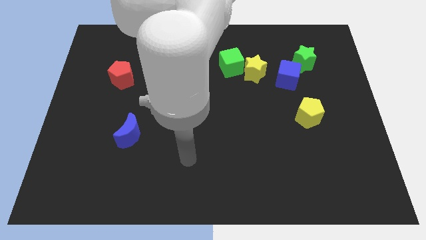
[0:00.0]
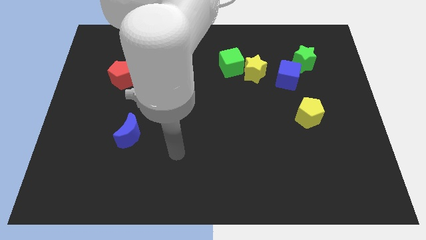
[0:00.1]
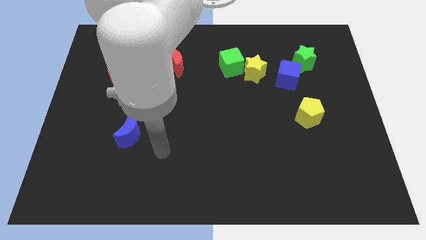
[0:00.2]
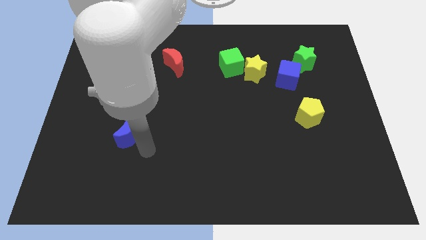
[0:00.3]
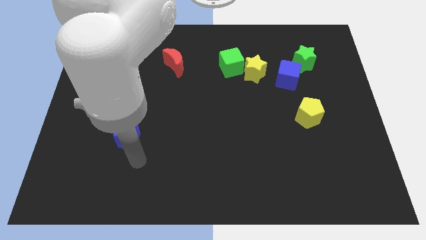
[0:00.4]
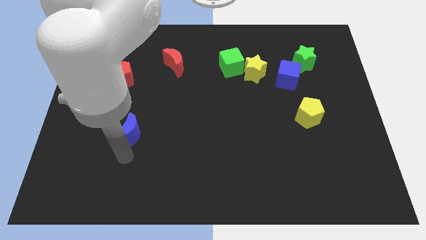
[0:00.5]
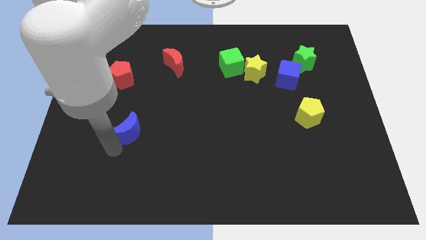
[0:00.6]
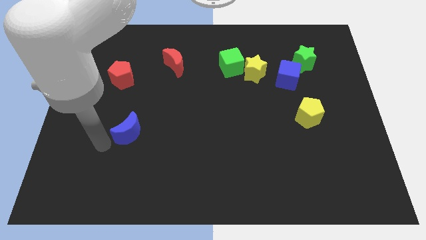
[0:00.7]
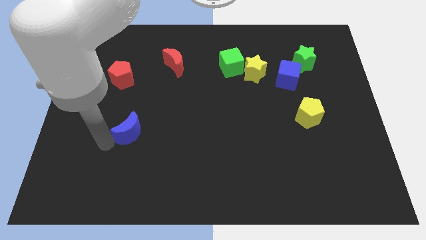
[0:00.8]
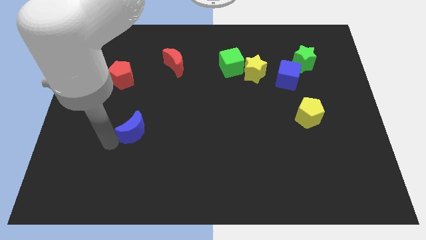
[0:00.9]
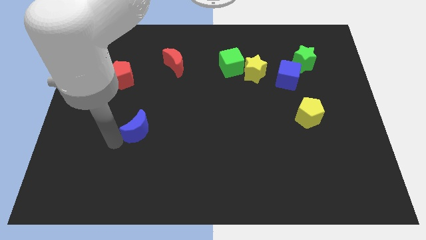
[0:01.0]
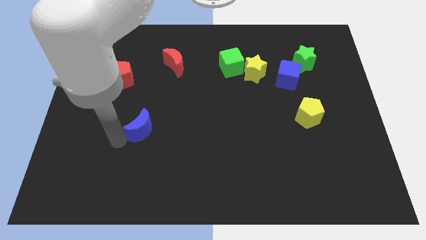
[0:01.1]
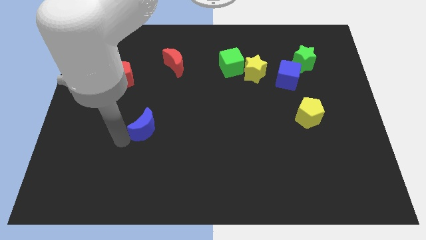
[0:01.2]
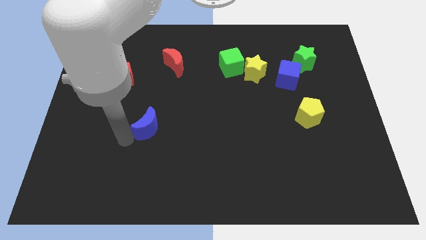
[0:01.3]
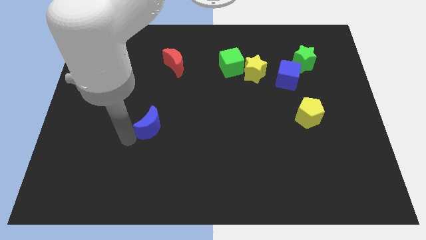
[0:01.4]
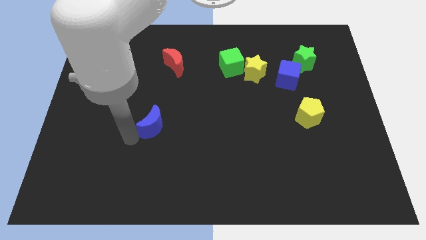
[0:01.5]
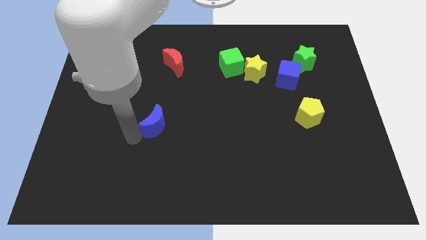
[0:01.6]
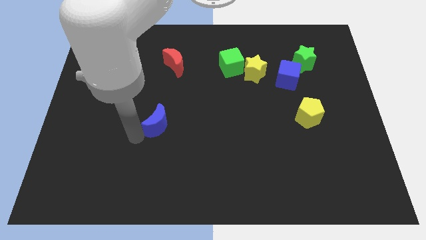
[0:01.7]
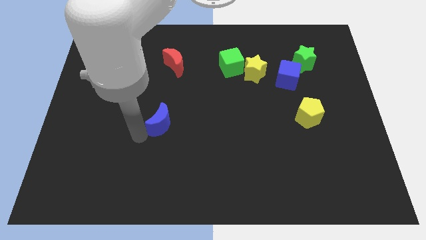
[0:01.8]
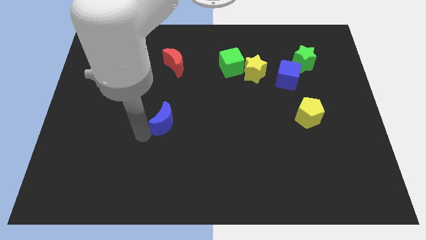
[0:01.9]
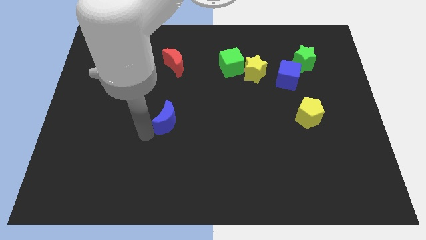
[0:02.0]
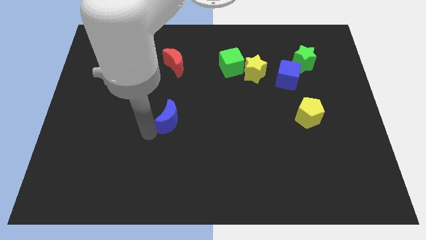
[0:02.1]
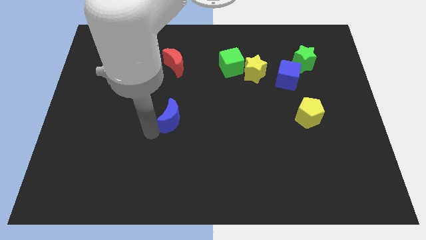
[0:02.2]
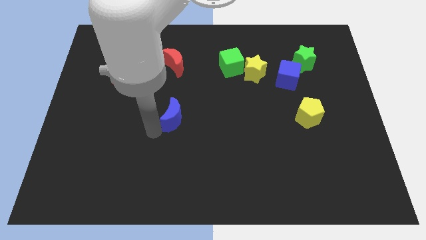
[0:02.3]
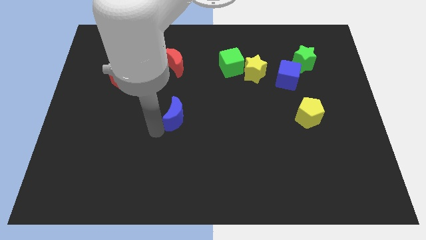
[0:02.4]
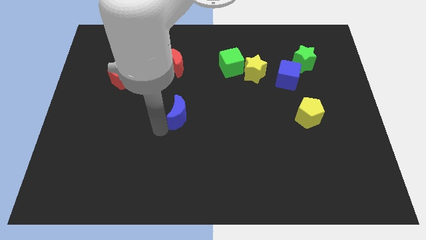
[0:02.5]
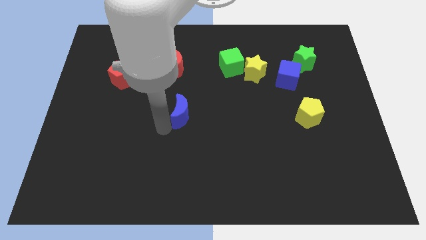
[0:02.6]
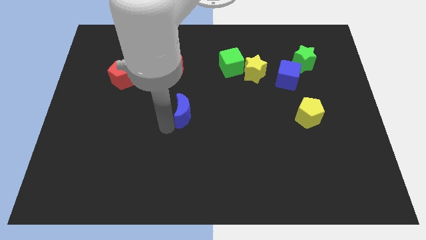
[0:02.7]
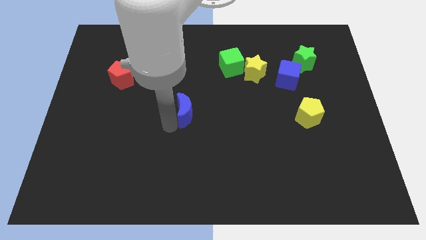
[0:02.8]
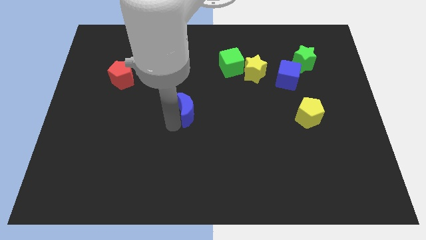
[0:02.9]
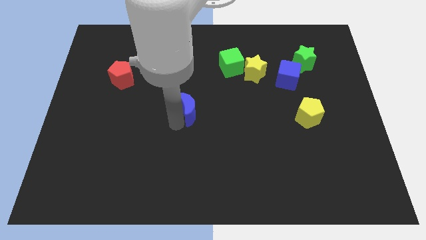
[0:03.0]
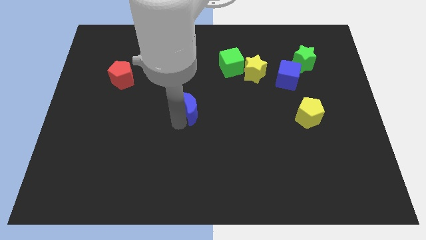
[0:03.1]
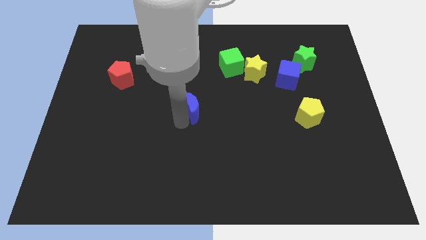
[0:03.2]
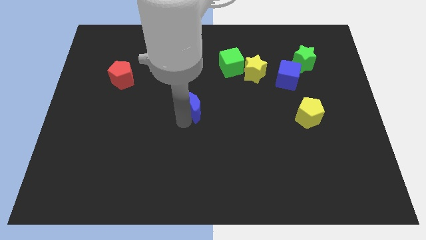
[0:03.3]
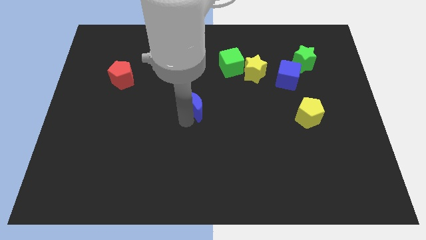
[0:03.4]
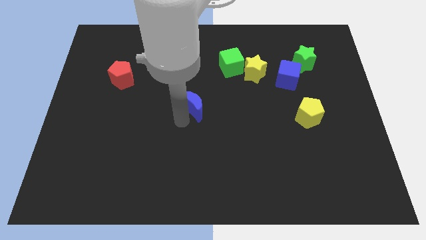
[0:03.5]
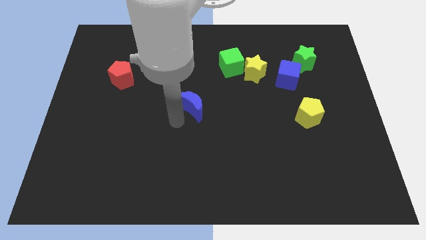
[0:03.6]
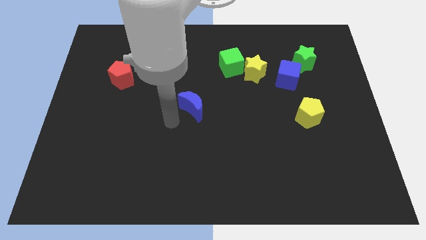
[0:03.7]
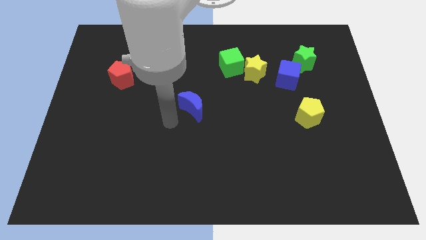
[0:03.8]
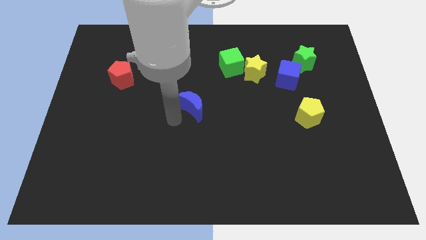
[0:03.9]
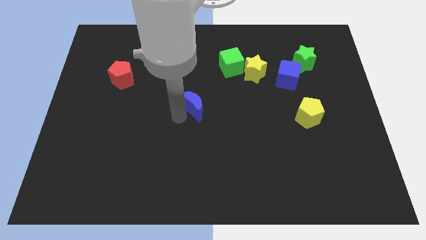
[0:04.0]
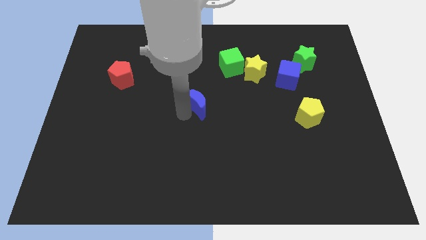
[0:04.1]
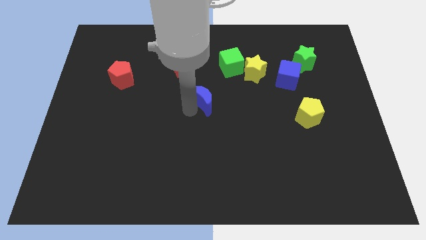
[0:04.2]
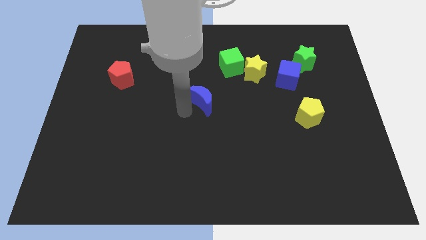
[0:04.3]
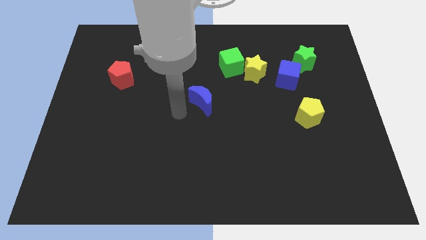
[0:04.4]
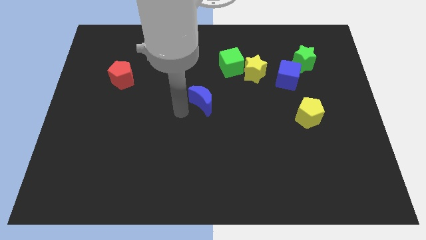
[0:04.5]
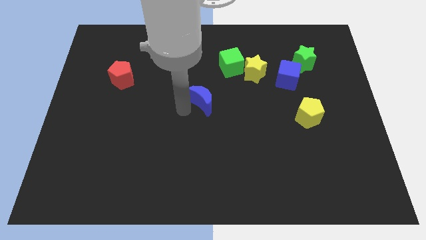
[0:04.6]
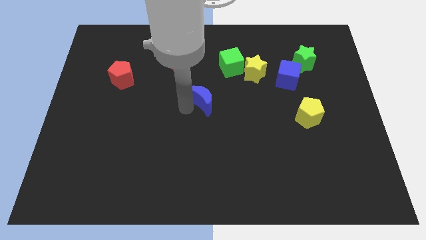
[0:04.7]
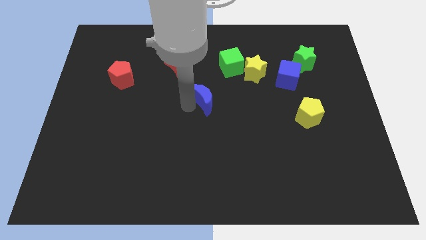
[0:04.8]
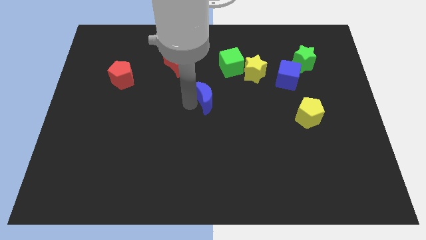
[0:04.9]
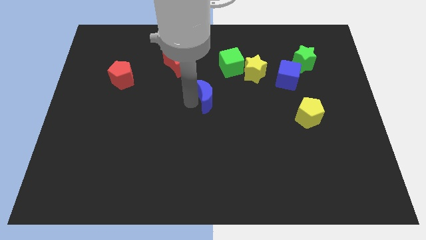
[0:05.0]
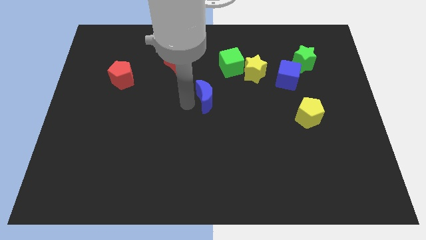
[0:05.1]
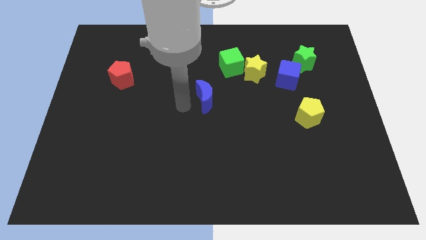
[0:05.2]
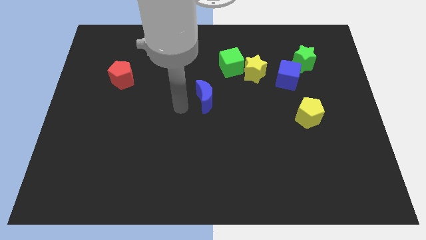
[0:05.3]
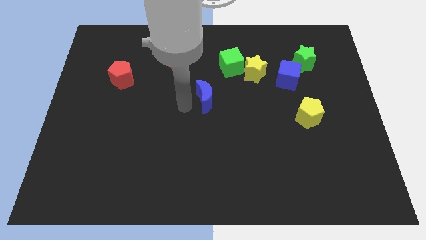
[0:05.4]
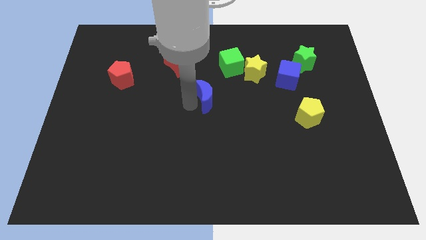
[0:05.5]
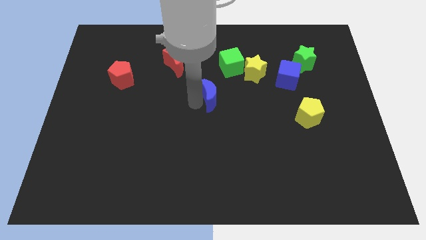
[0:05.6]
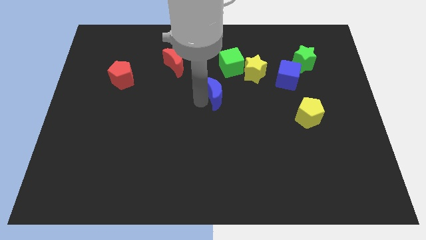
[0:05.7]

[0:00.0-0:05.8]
put the blue moon diagonally down and to the left of the yellow star

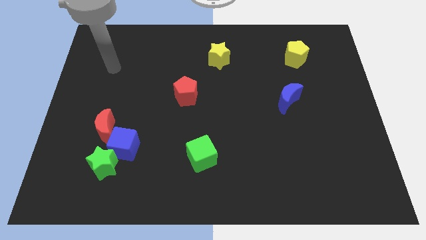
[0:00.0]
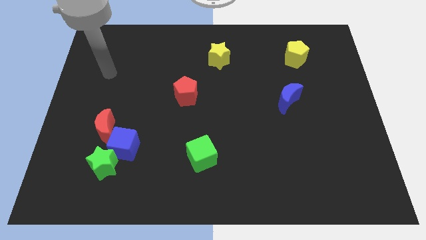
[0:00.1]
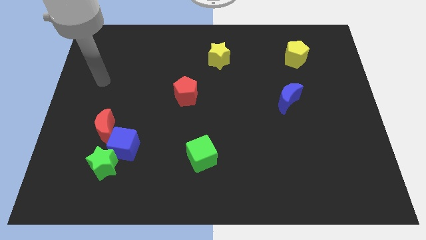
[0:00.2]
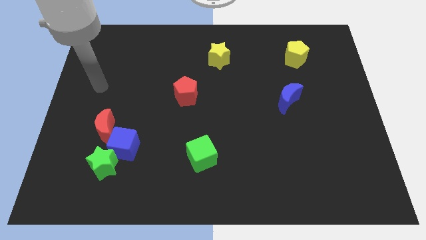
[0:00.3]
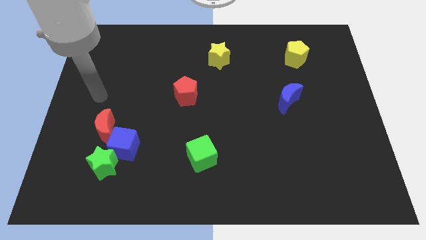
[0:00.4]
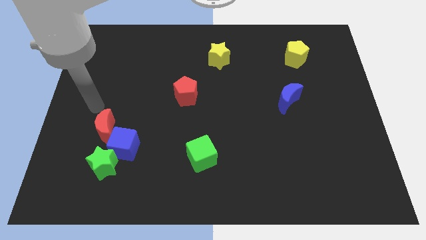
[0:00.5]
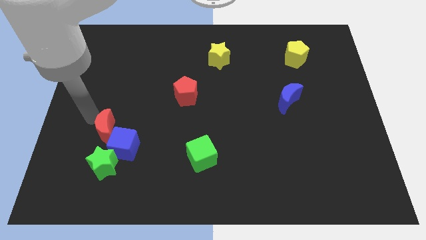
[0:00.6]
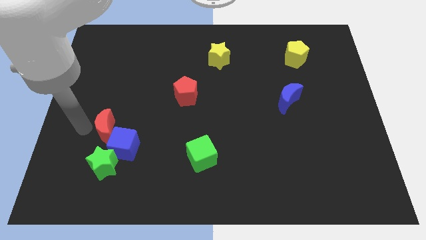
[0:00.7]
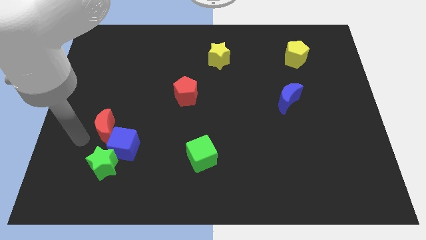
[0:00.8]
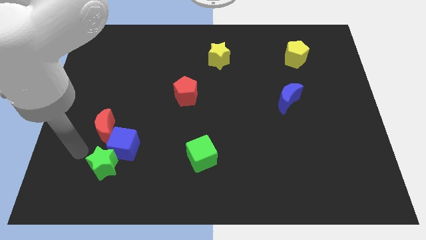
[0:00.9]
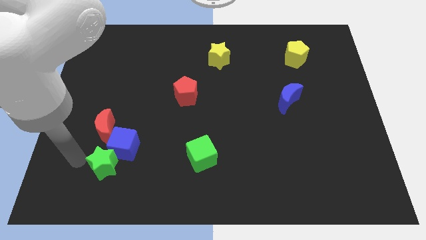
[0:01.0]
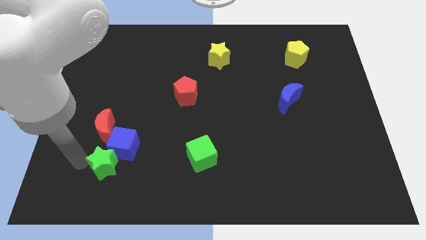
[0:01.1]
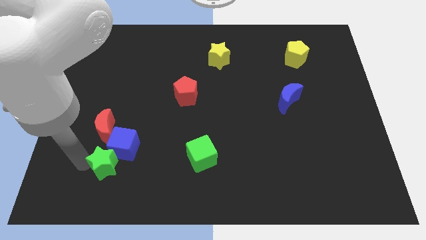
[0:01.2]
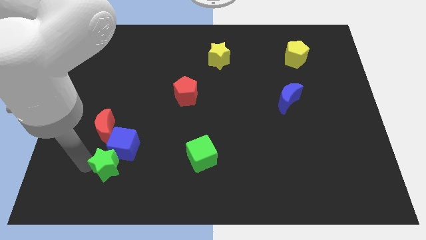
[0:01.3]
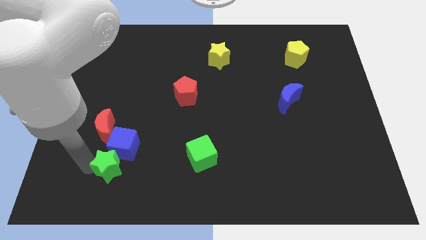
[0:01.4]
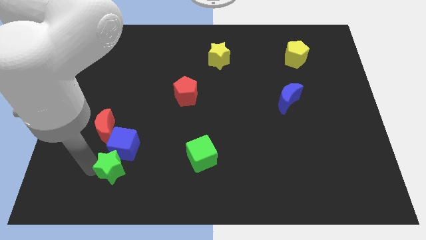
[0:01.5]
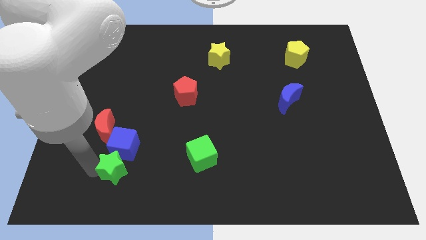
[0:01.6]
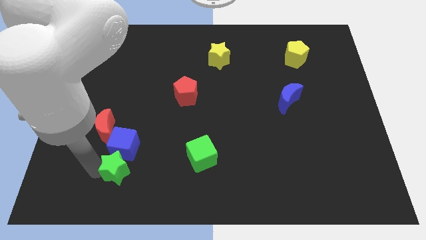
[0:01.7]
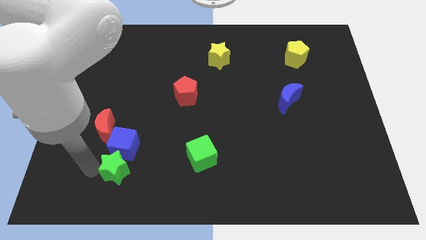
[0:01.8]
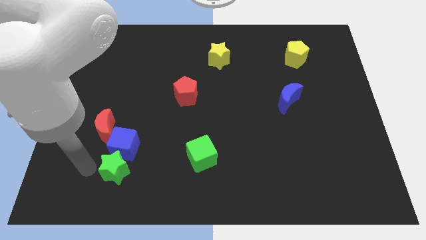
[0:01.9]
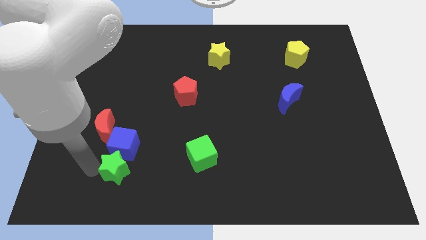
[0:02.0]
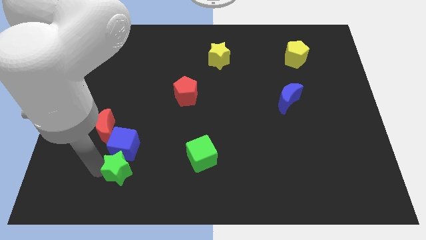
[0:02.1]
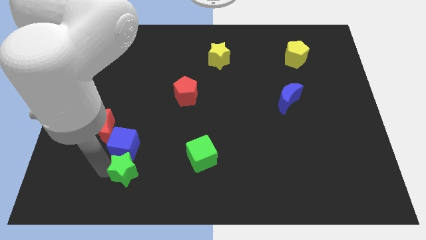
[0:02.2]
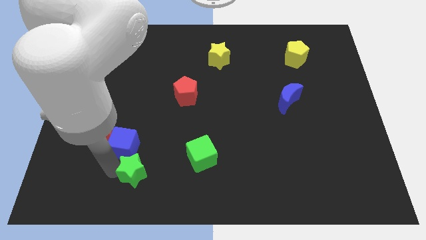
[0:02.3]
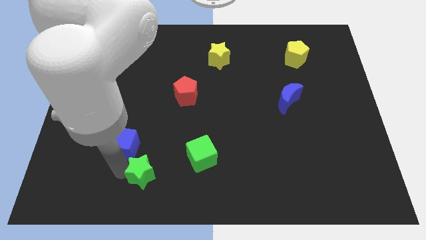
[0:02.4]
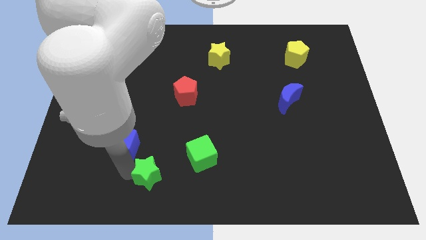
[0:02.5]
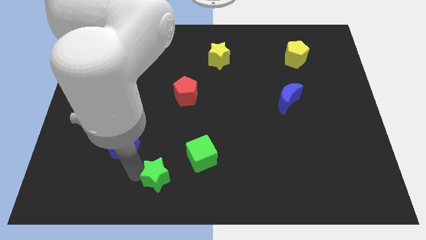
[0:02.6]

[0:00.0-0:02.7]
push the green star to the bottom left of the green cube
